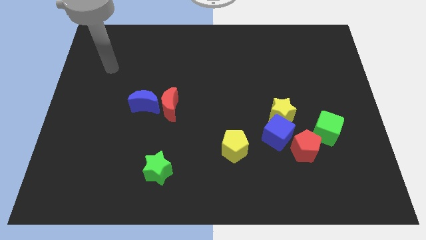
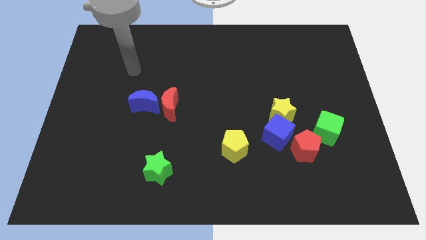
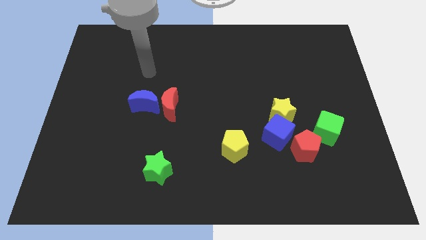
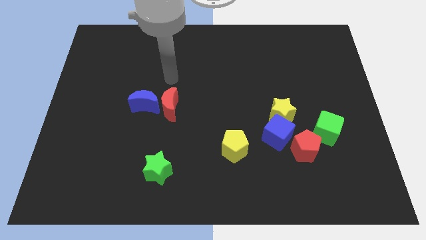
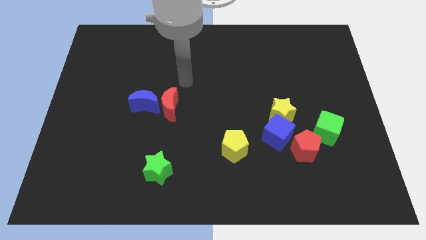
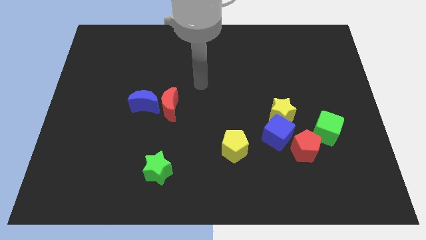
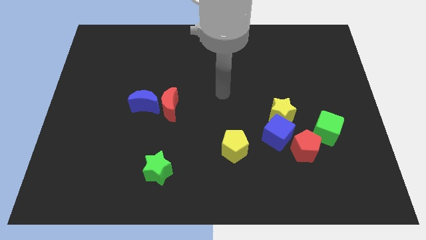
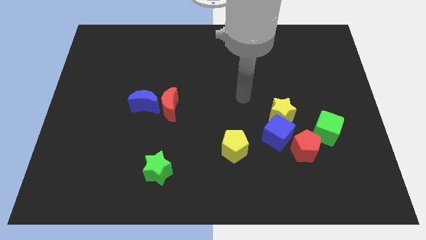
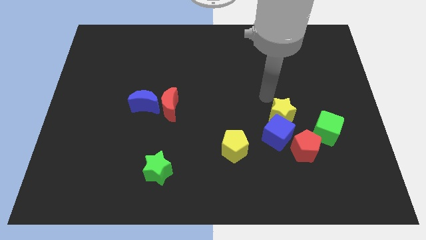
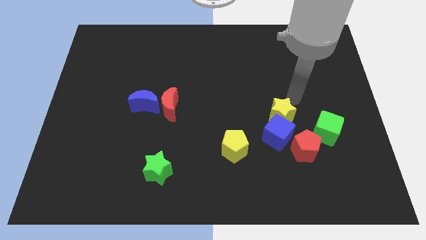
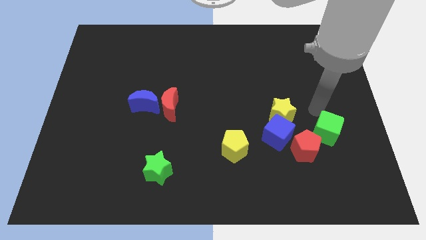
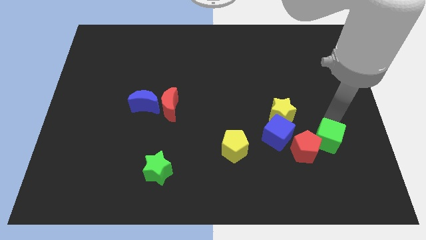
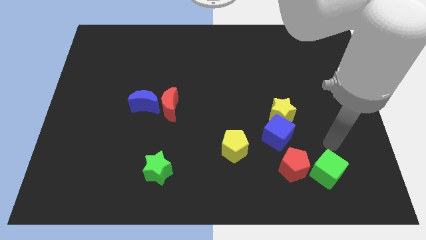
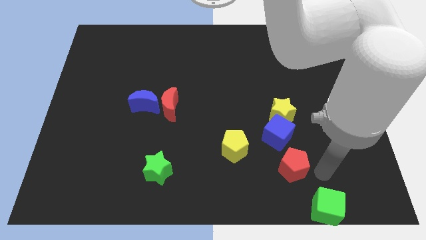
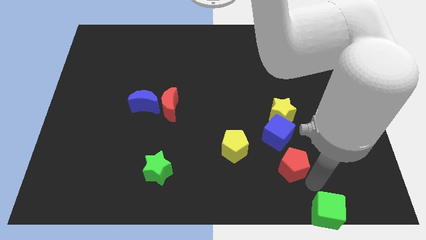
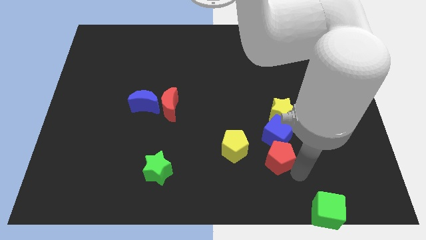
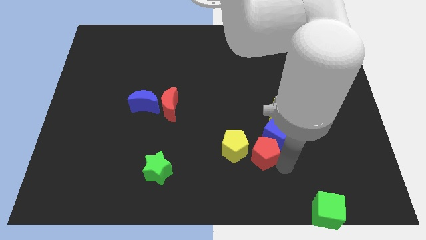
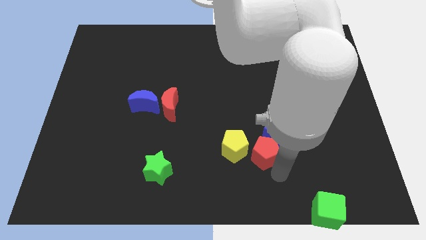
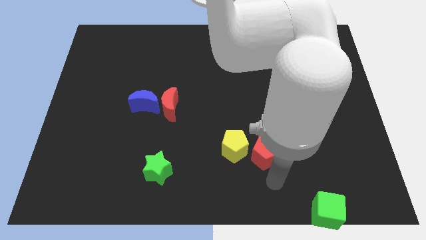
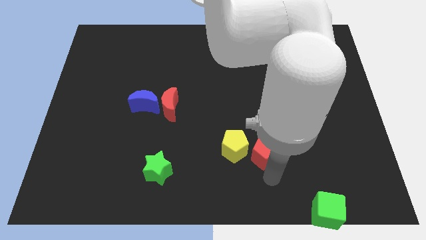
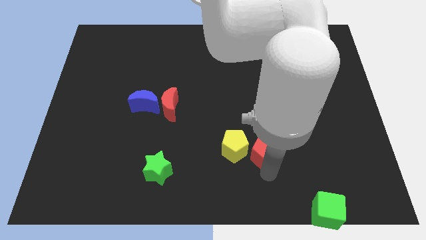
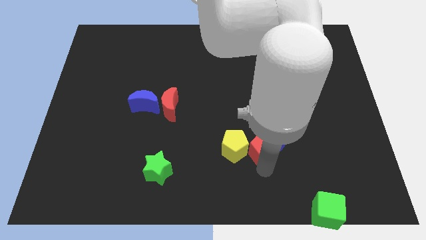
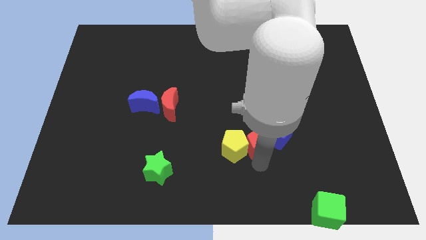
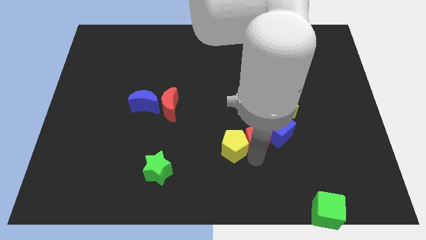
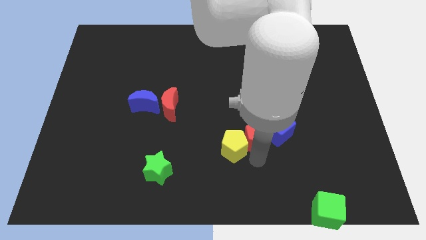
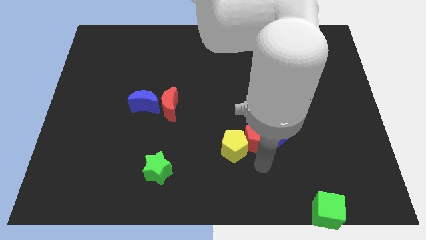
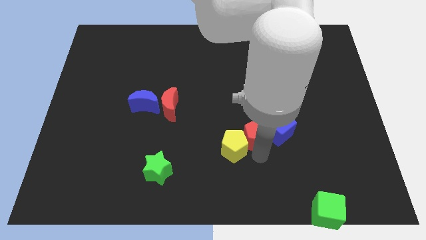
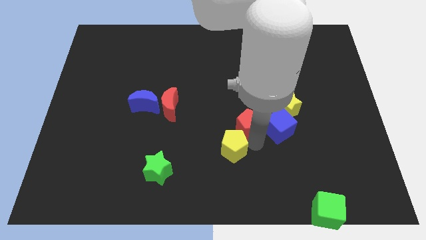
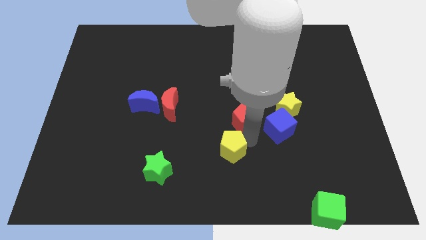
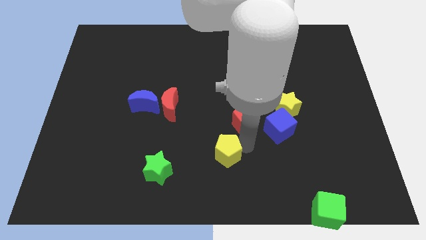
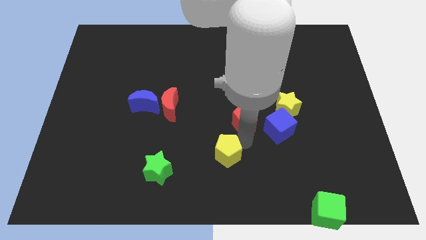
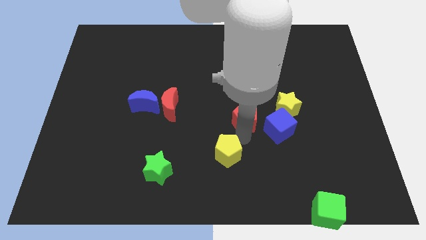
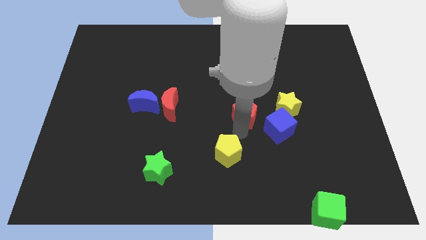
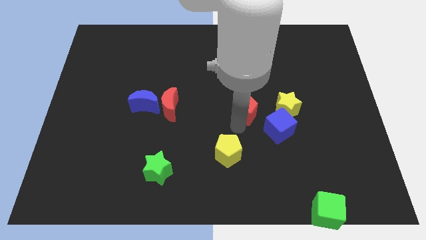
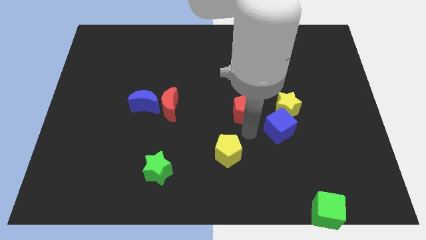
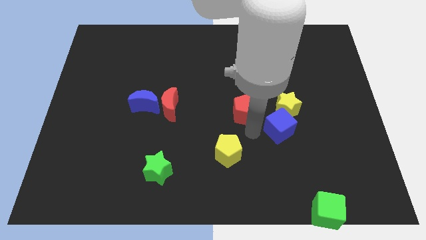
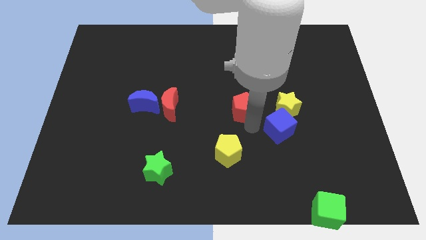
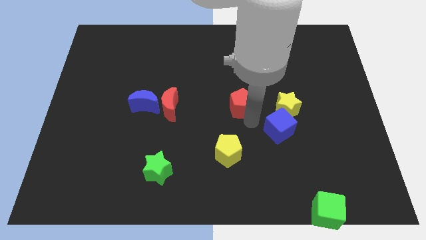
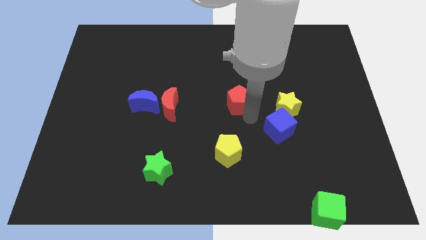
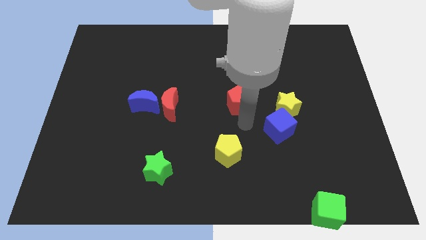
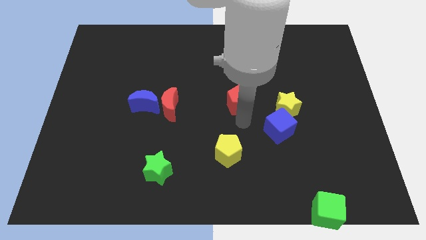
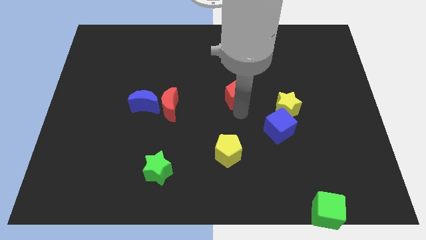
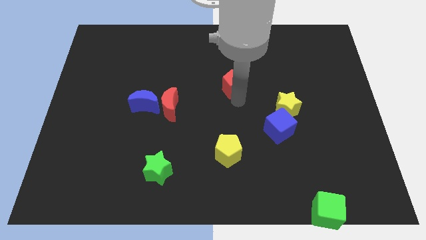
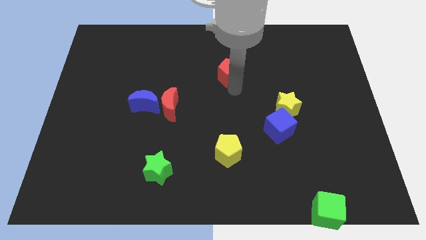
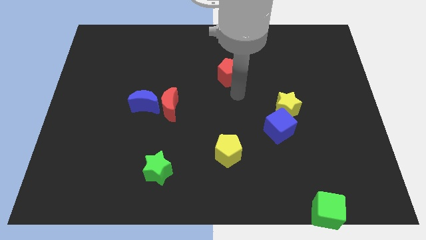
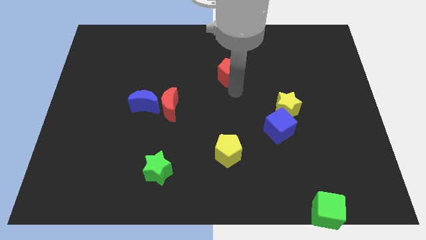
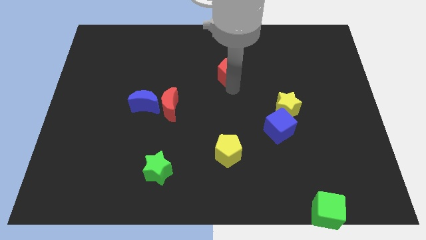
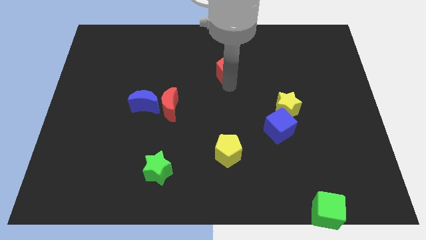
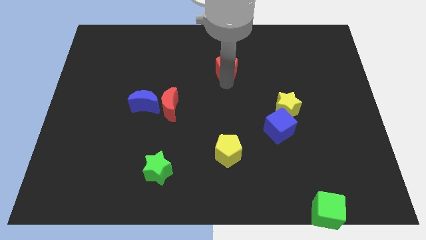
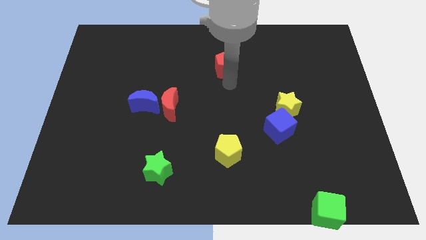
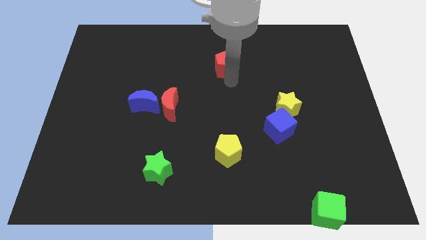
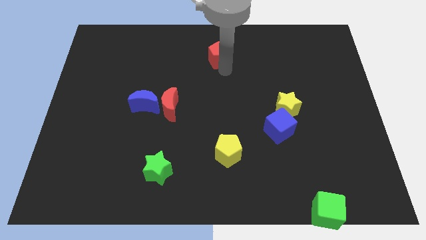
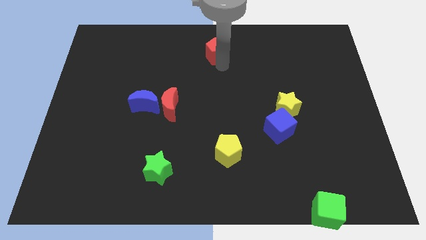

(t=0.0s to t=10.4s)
push the red pentagon to the towards your base

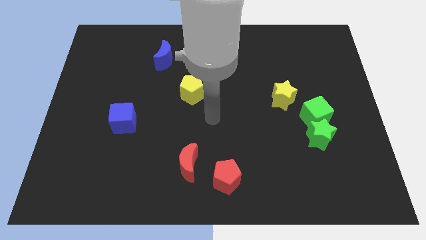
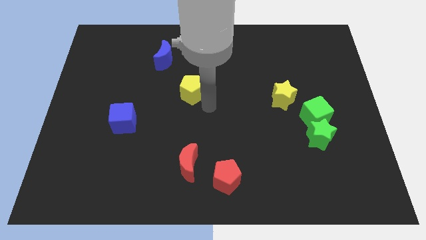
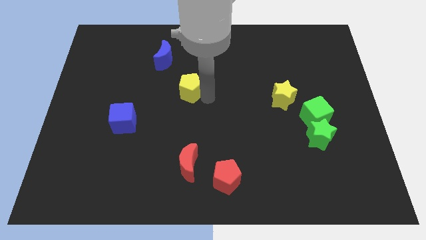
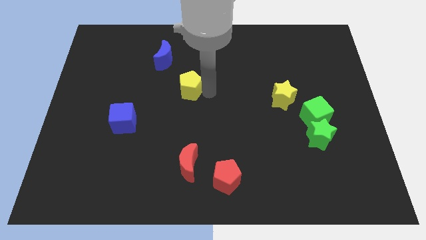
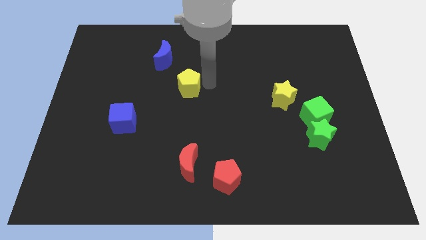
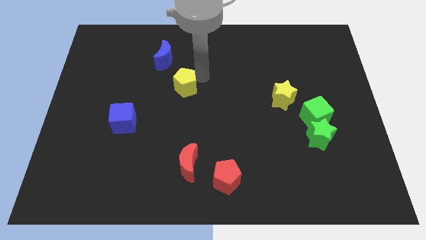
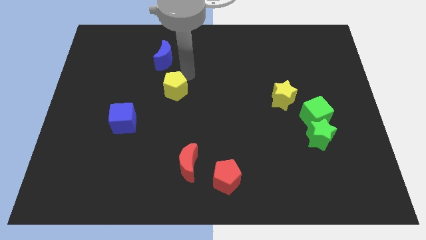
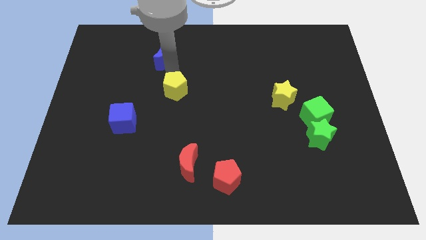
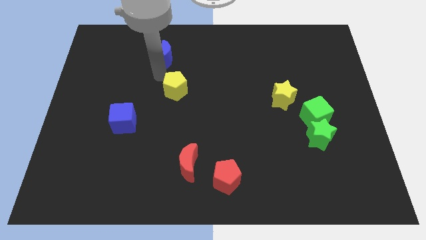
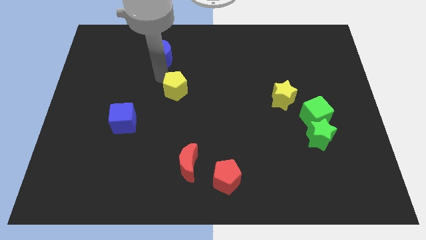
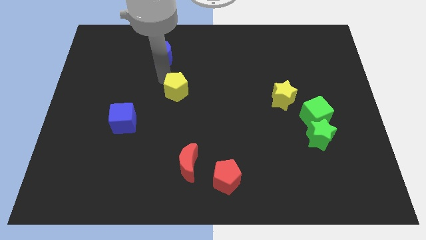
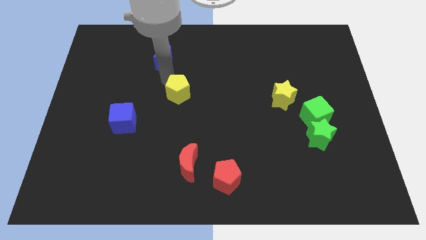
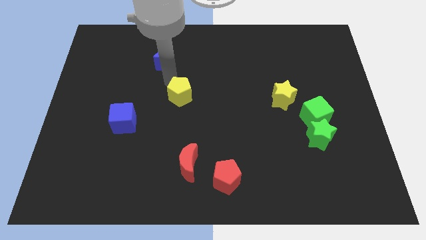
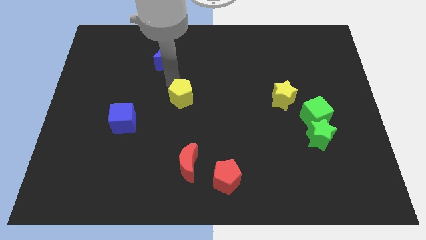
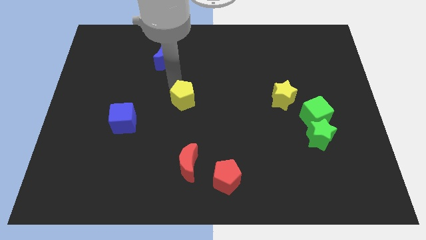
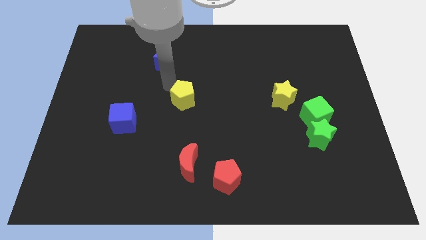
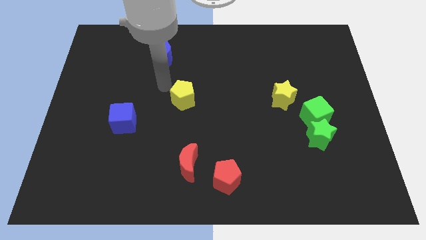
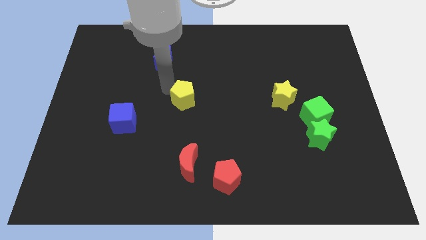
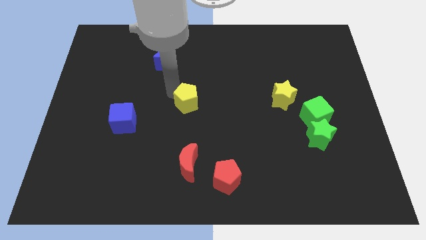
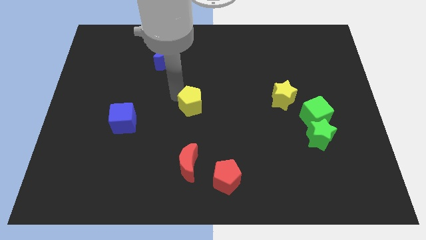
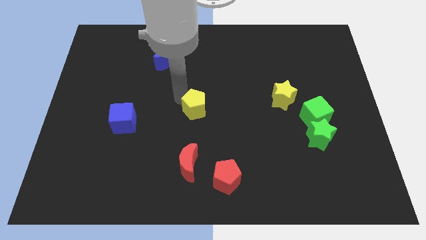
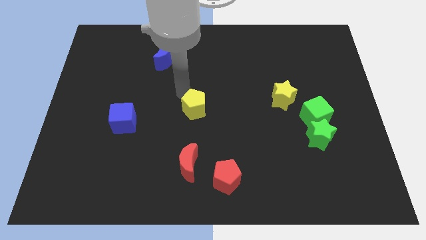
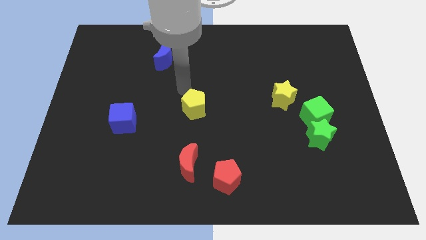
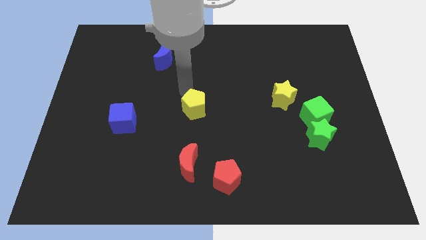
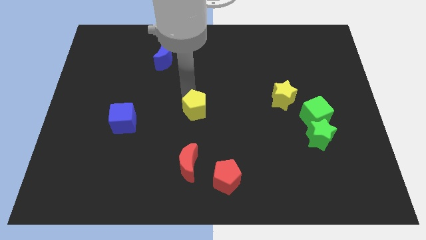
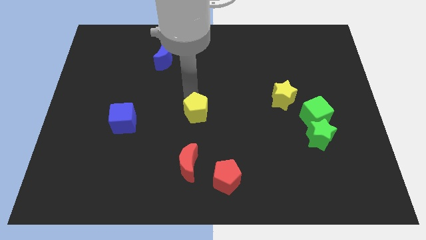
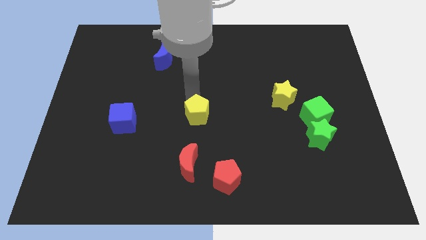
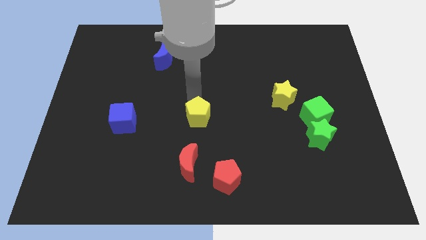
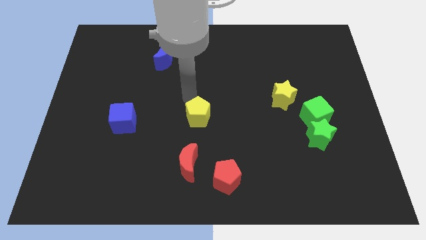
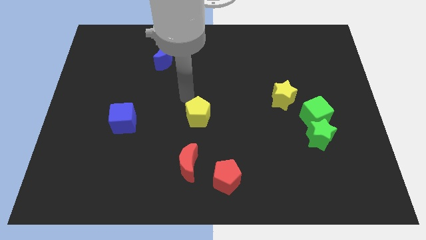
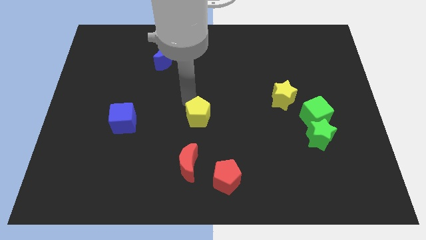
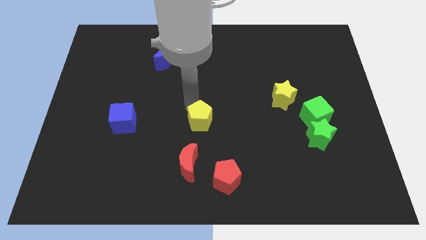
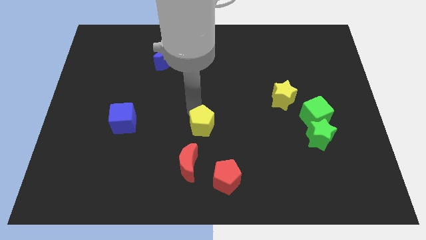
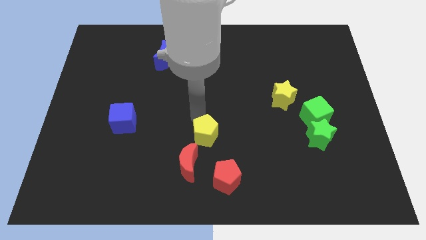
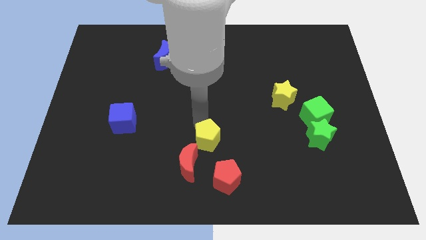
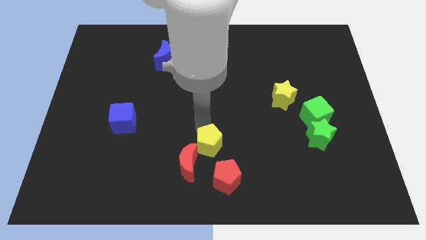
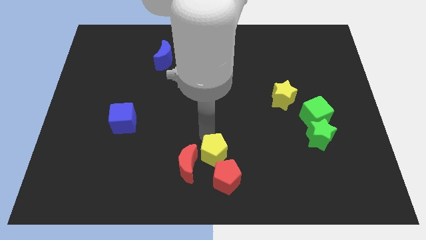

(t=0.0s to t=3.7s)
slide the yellow pentagon to the bottom side
